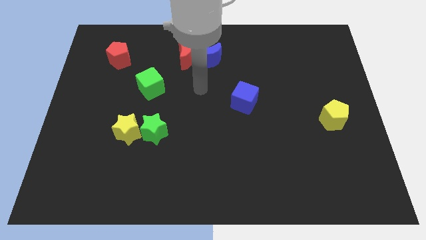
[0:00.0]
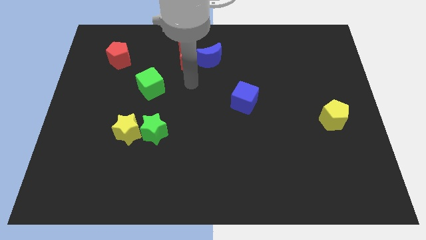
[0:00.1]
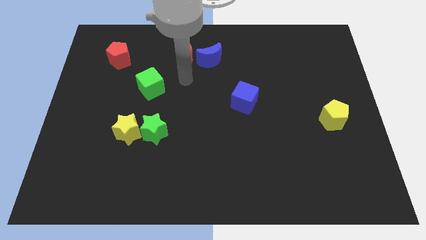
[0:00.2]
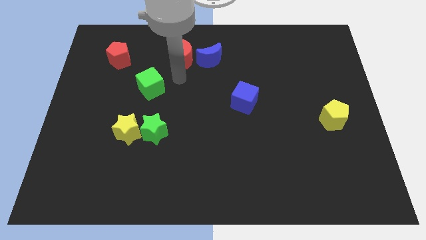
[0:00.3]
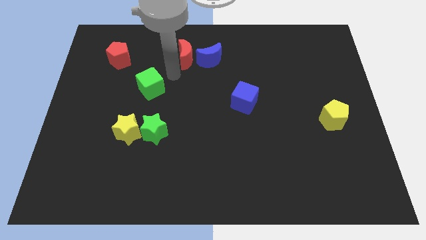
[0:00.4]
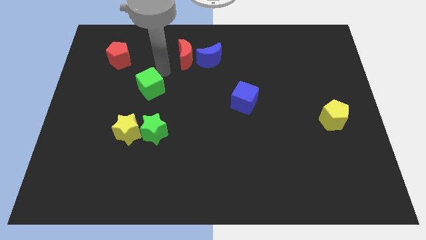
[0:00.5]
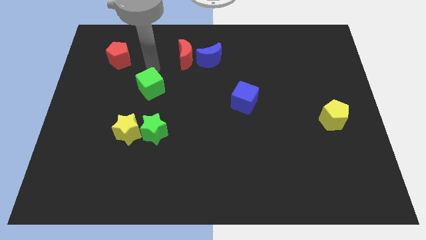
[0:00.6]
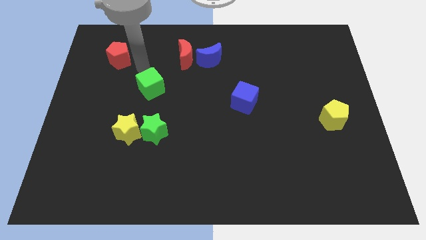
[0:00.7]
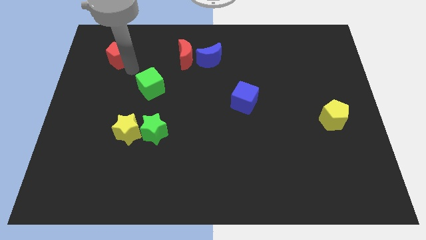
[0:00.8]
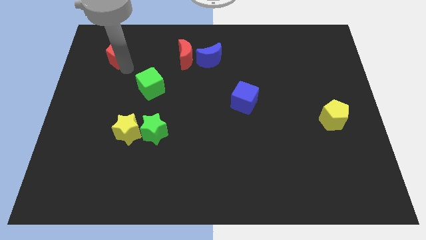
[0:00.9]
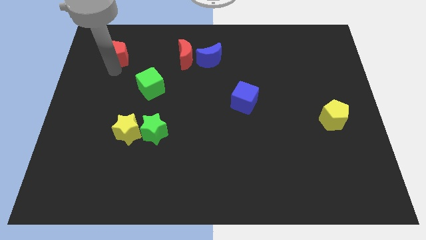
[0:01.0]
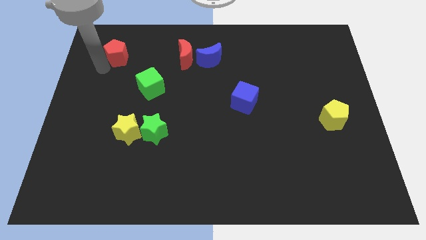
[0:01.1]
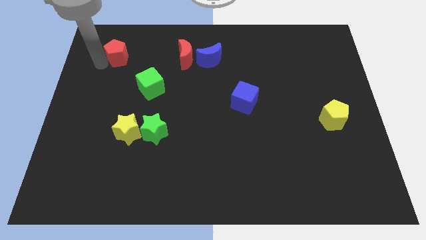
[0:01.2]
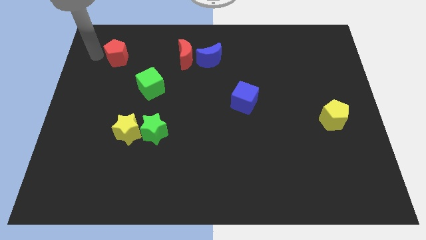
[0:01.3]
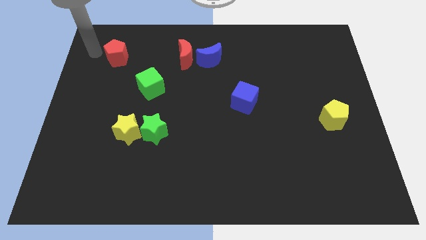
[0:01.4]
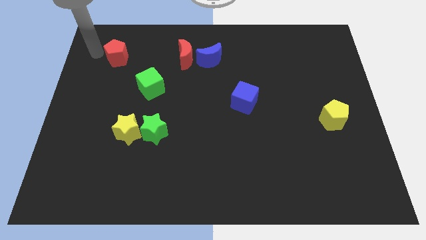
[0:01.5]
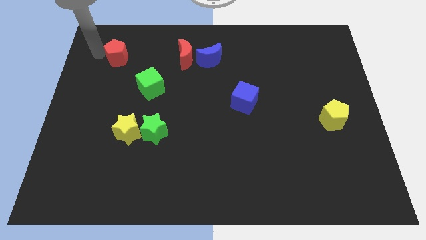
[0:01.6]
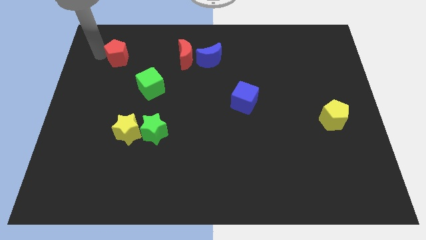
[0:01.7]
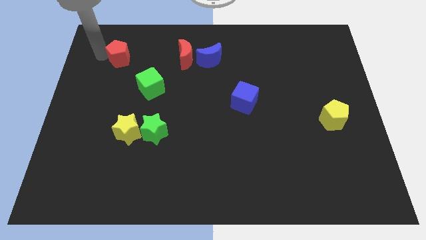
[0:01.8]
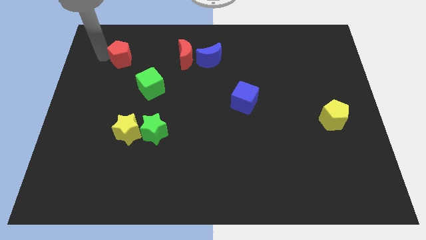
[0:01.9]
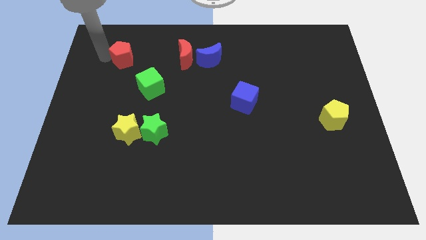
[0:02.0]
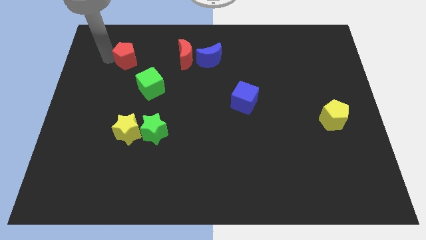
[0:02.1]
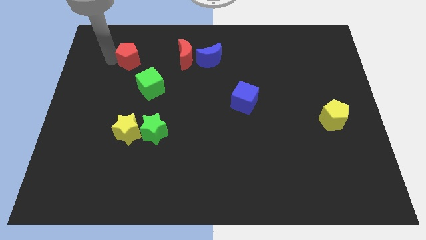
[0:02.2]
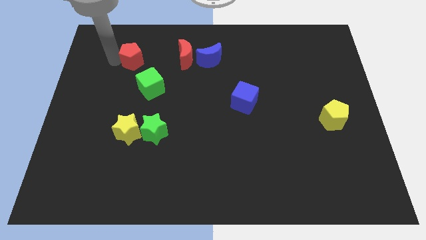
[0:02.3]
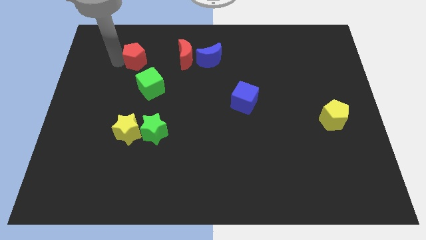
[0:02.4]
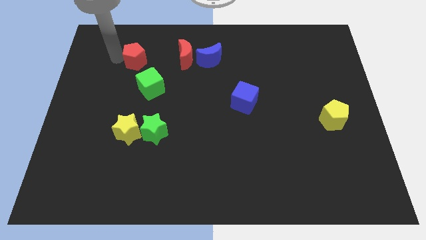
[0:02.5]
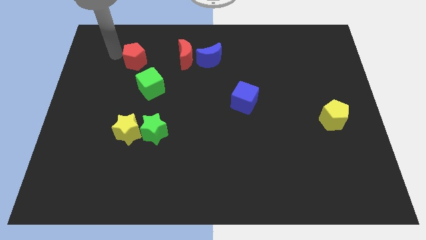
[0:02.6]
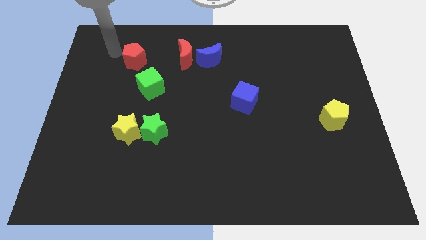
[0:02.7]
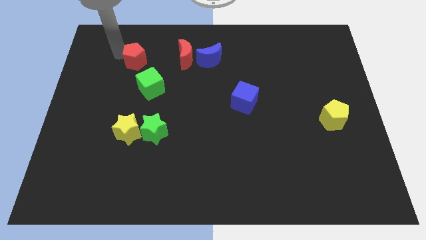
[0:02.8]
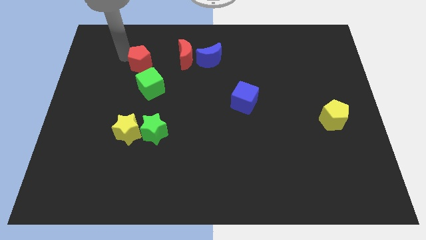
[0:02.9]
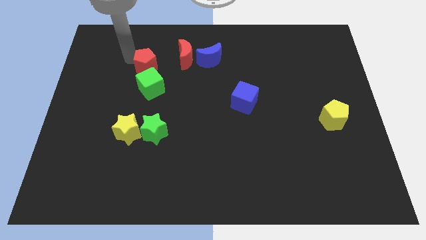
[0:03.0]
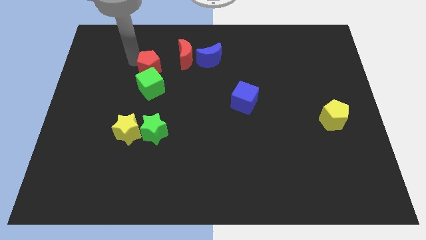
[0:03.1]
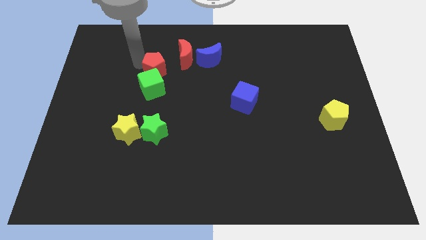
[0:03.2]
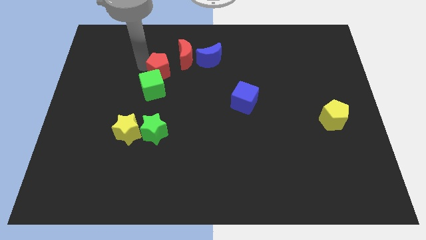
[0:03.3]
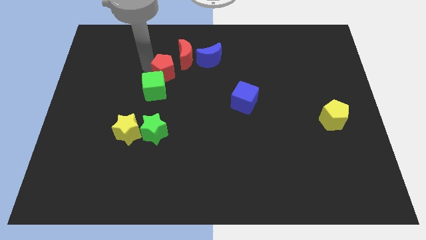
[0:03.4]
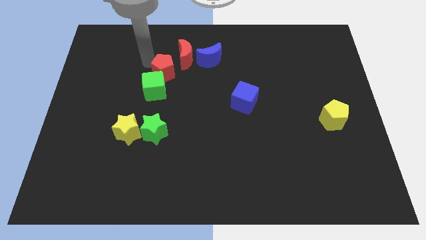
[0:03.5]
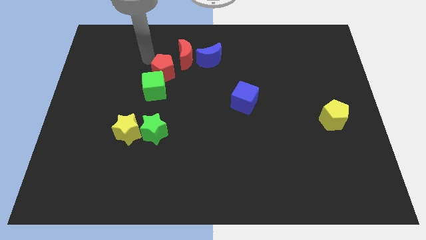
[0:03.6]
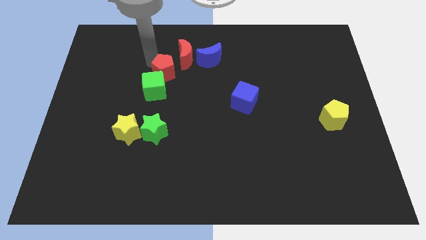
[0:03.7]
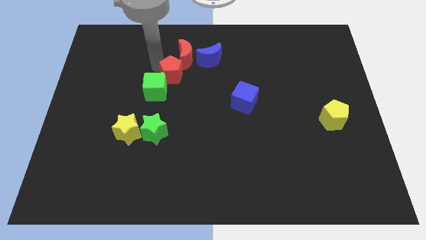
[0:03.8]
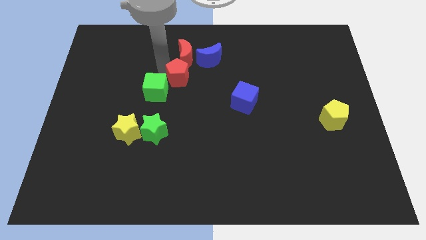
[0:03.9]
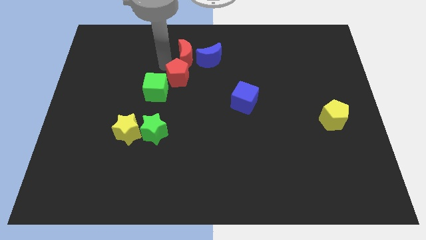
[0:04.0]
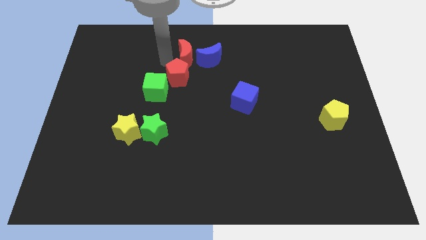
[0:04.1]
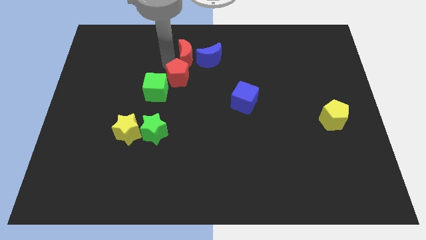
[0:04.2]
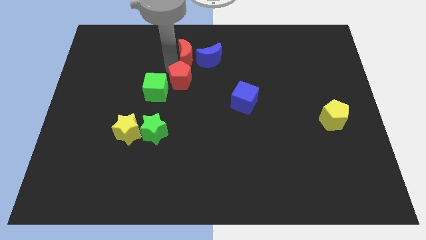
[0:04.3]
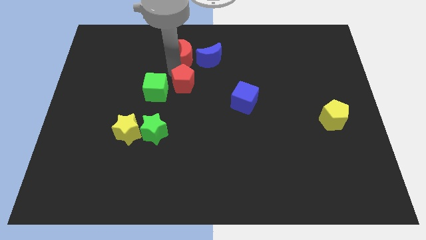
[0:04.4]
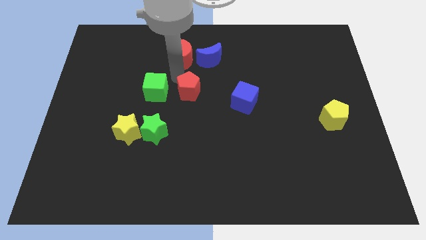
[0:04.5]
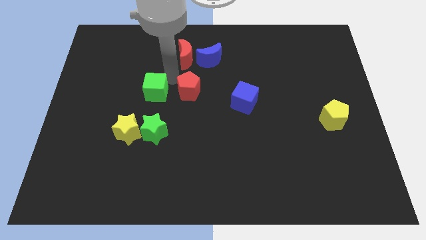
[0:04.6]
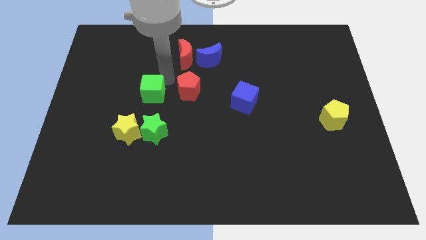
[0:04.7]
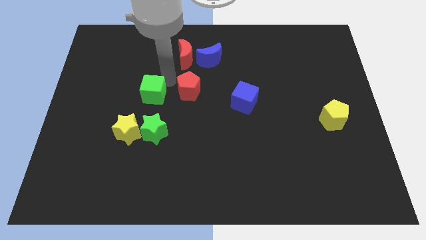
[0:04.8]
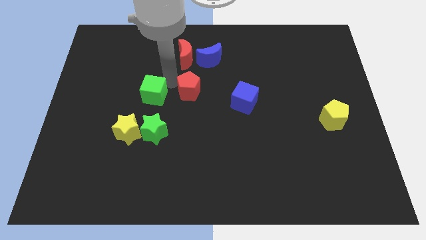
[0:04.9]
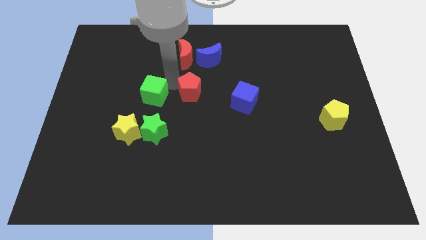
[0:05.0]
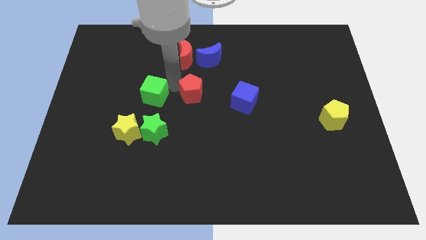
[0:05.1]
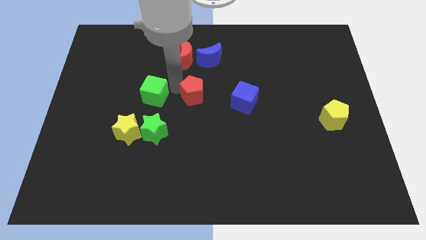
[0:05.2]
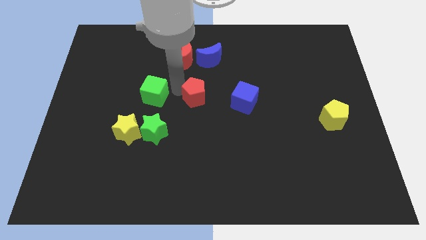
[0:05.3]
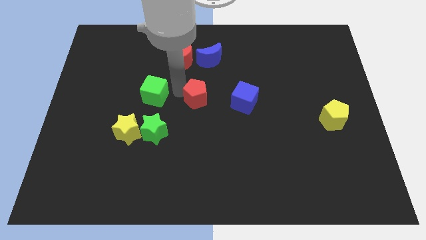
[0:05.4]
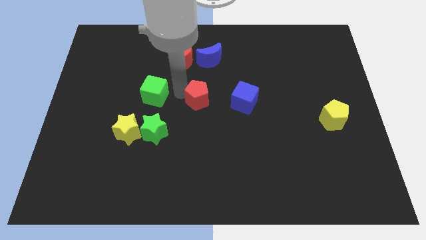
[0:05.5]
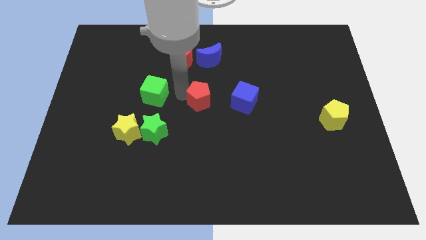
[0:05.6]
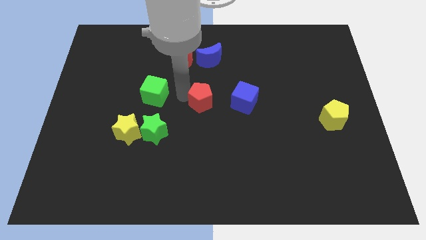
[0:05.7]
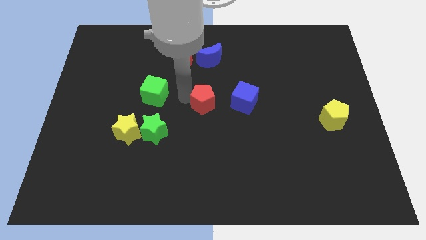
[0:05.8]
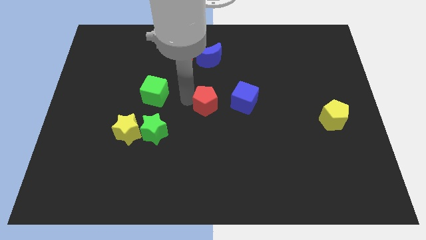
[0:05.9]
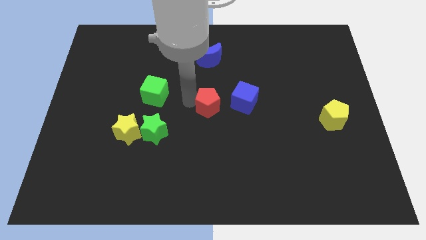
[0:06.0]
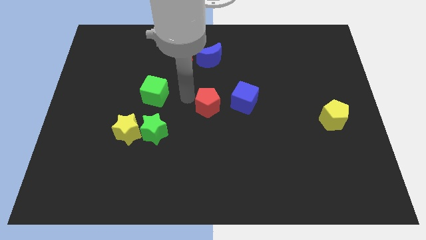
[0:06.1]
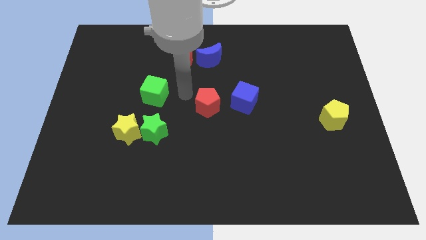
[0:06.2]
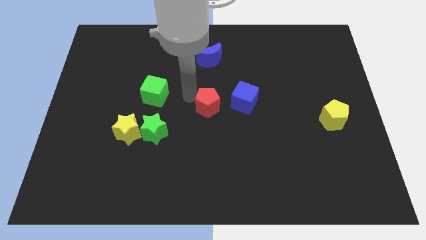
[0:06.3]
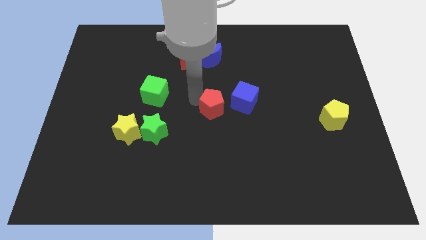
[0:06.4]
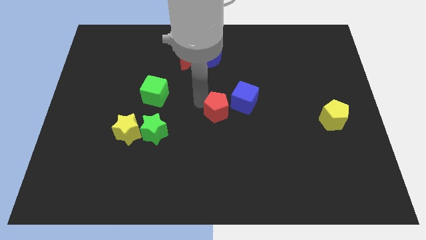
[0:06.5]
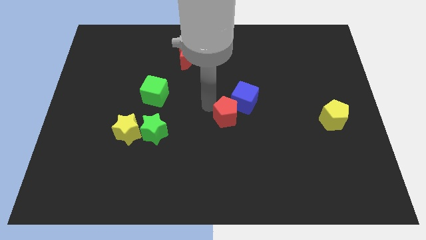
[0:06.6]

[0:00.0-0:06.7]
slide the red pentagon to the bottom side of the blue cube

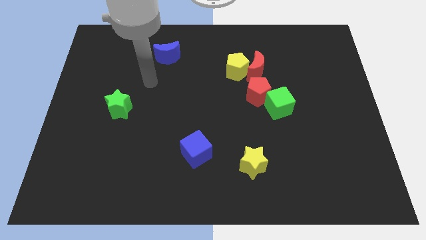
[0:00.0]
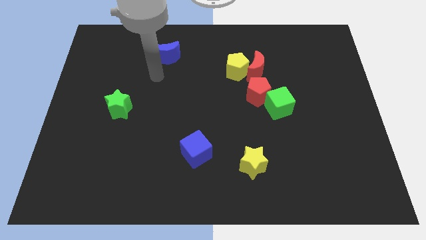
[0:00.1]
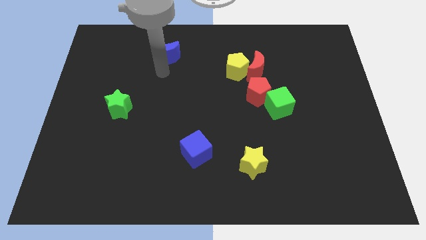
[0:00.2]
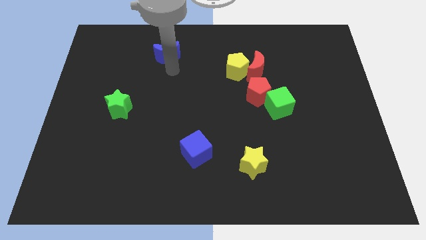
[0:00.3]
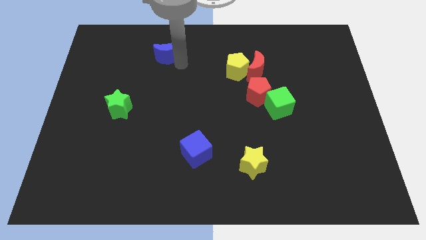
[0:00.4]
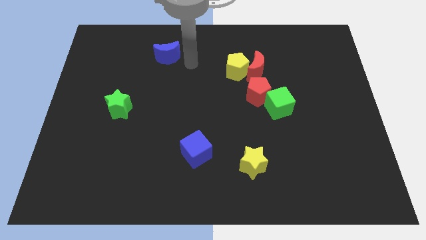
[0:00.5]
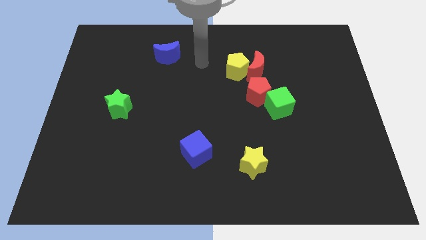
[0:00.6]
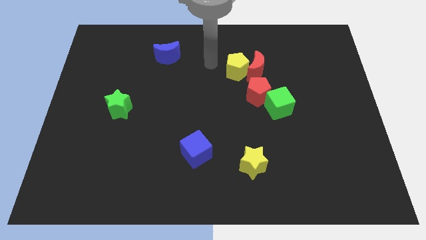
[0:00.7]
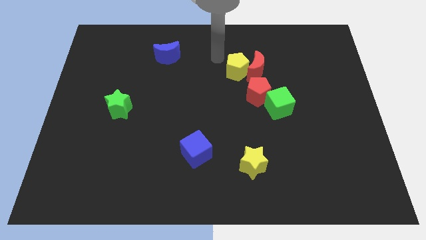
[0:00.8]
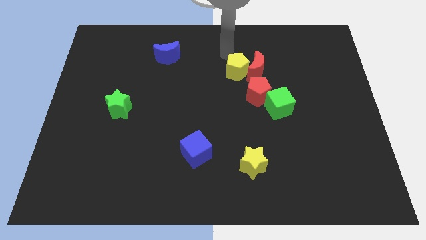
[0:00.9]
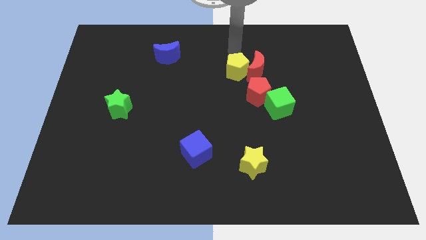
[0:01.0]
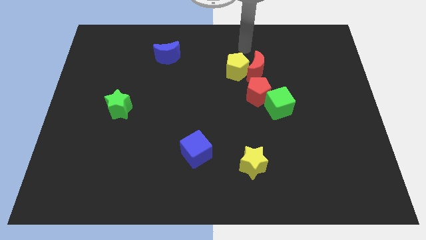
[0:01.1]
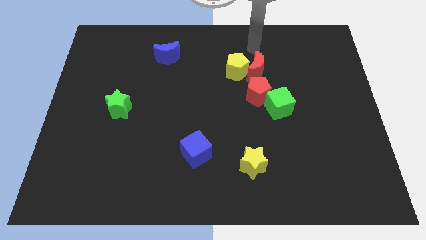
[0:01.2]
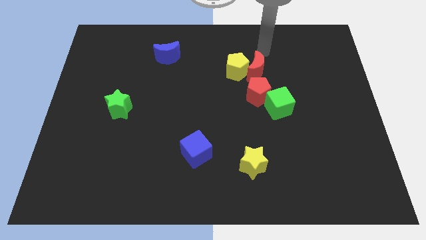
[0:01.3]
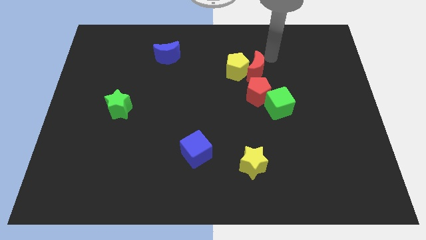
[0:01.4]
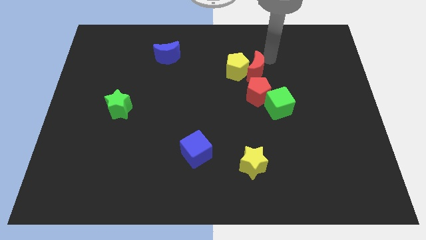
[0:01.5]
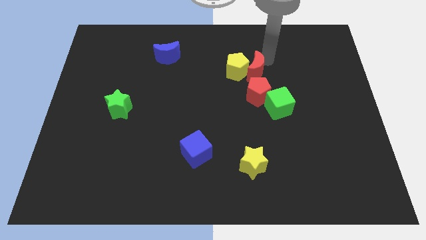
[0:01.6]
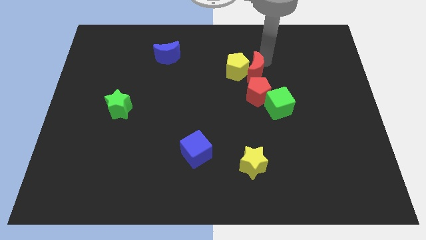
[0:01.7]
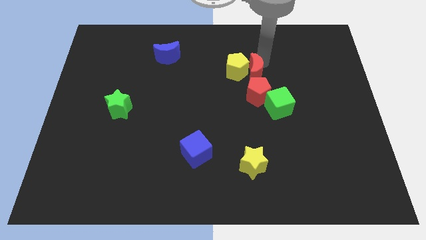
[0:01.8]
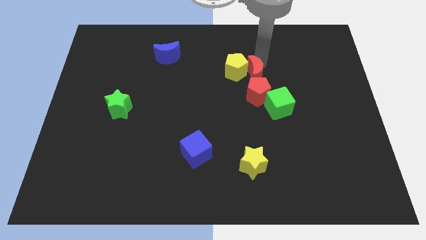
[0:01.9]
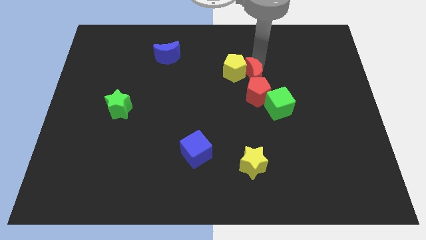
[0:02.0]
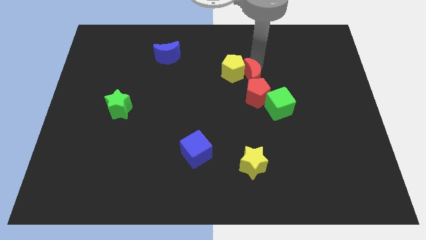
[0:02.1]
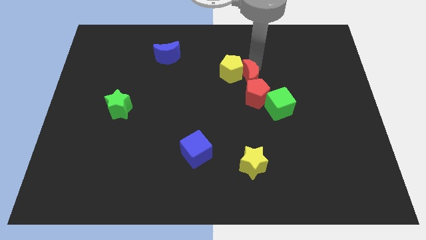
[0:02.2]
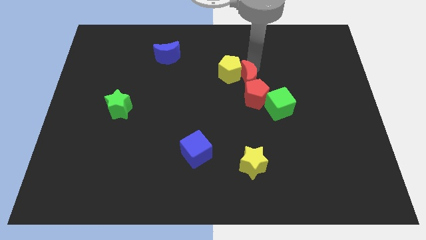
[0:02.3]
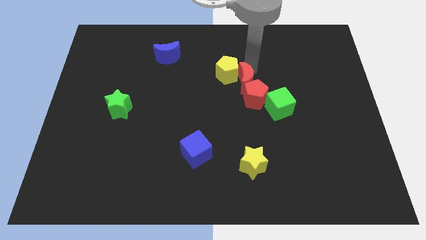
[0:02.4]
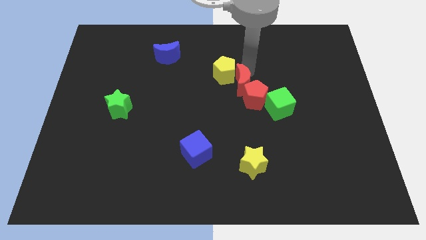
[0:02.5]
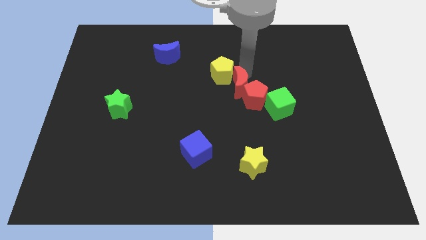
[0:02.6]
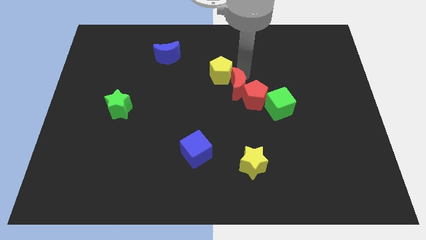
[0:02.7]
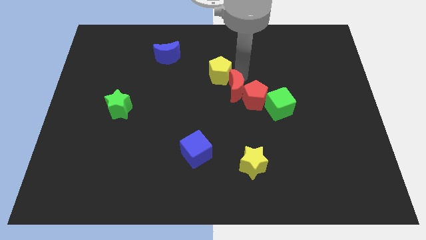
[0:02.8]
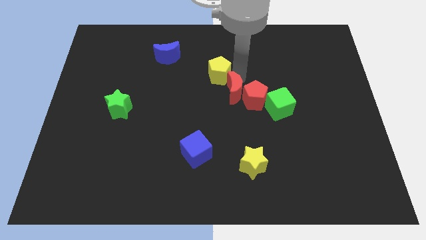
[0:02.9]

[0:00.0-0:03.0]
slide the red moon to the left of the green cube
